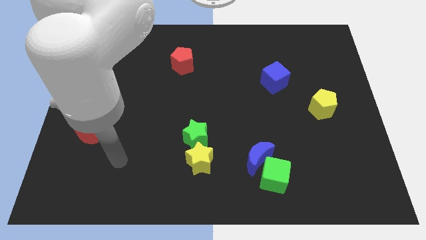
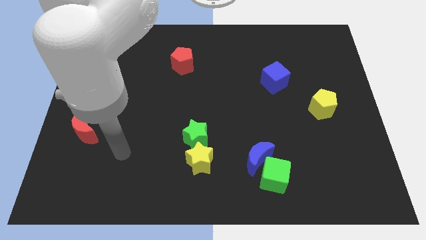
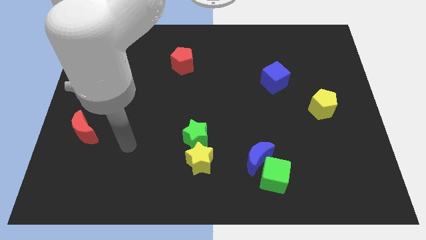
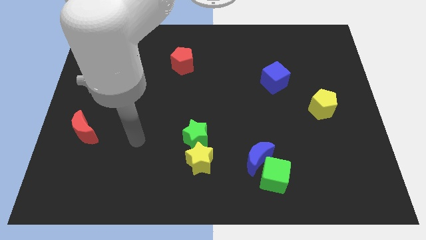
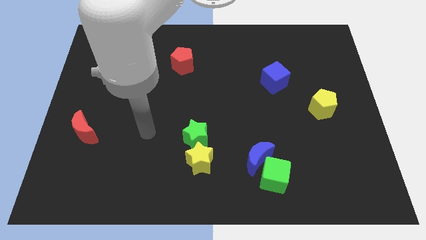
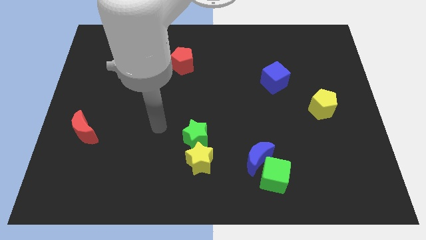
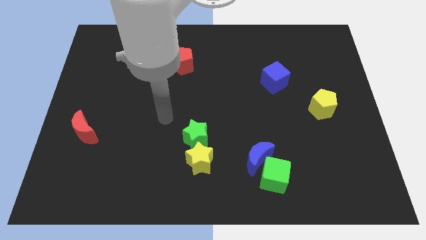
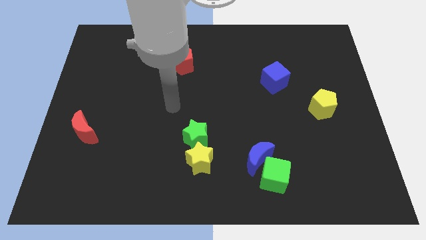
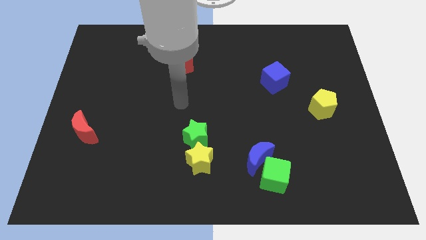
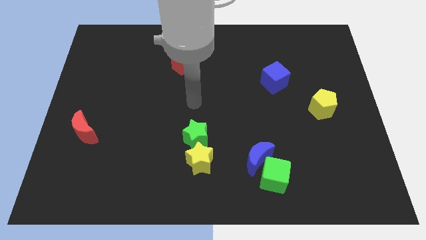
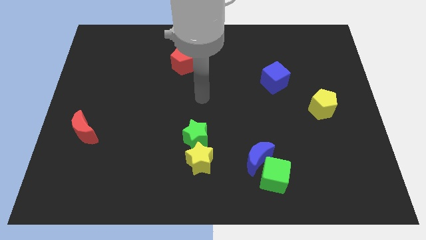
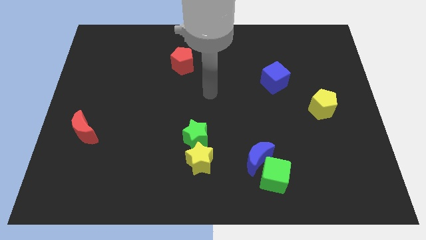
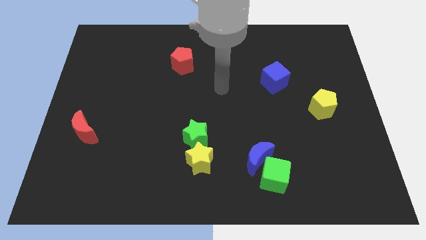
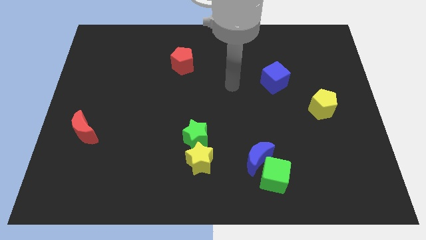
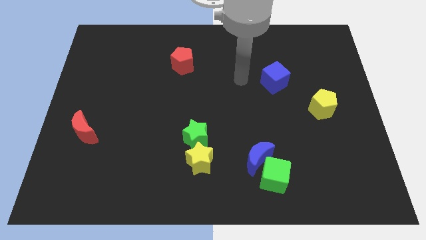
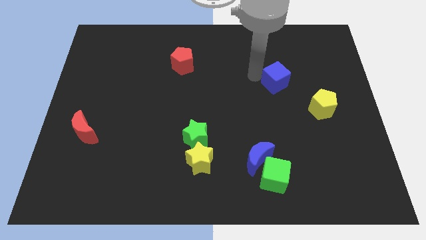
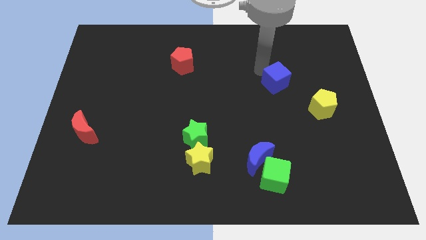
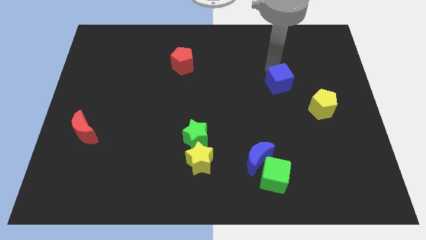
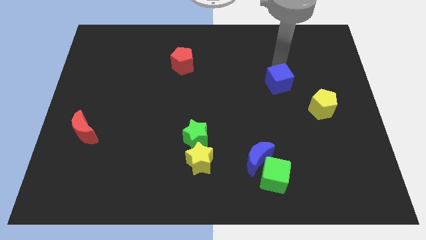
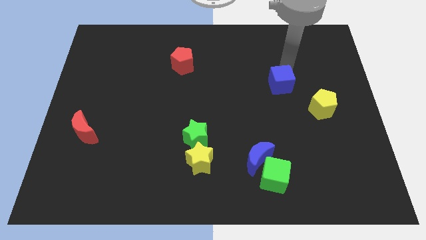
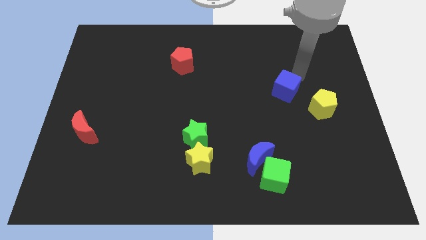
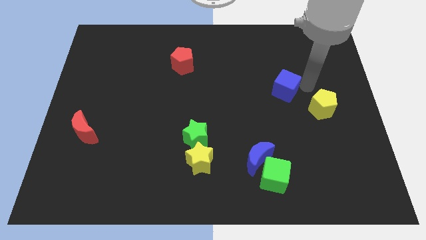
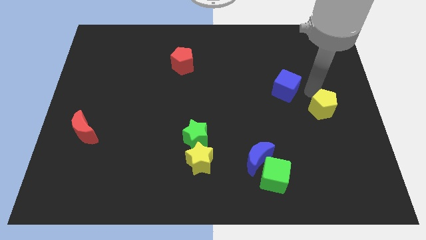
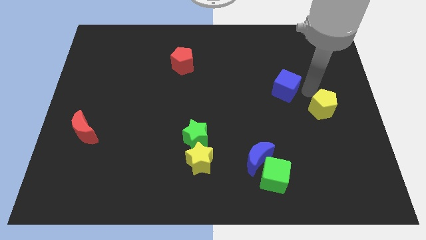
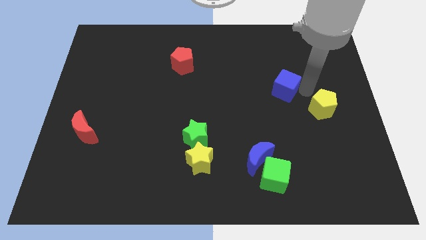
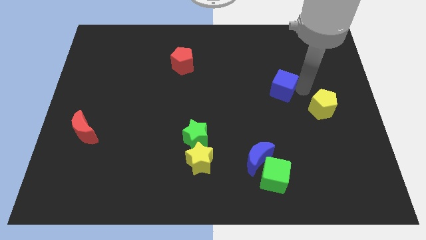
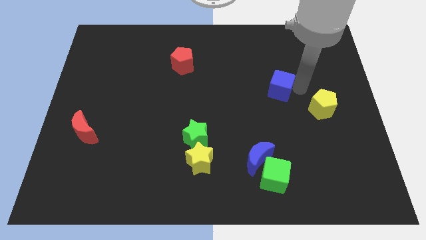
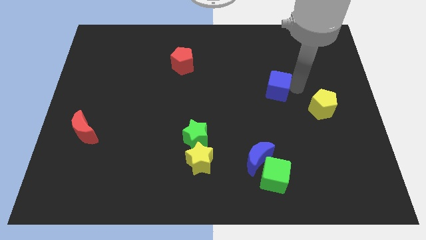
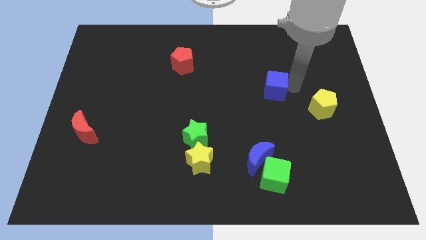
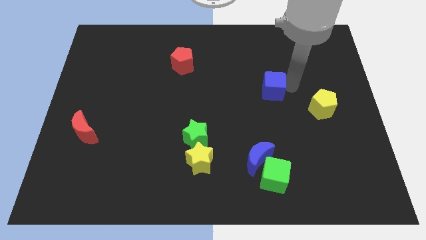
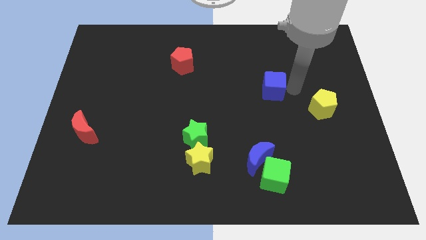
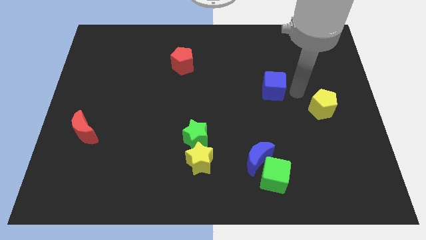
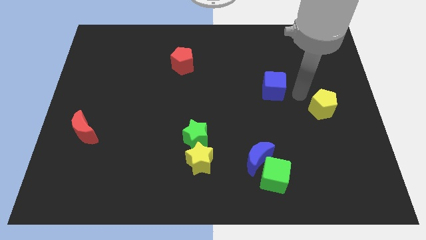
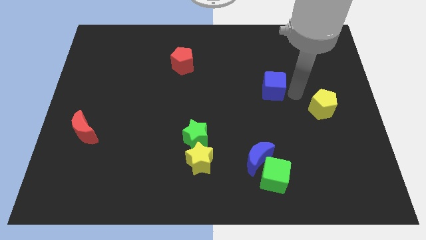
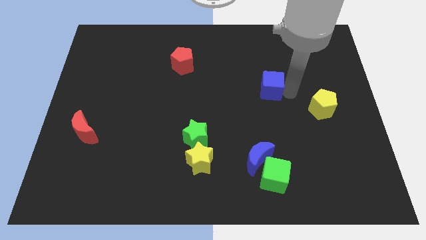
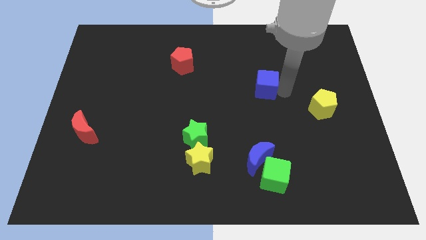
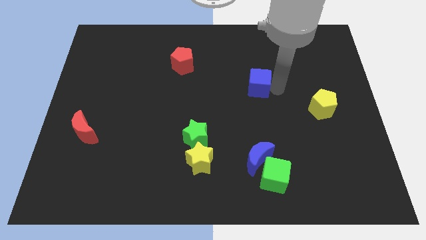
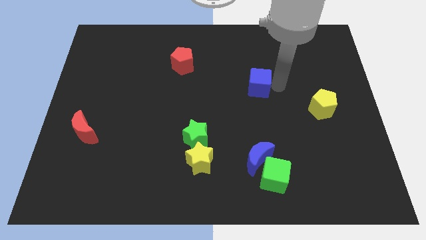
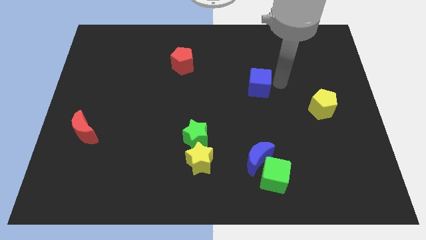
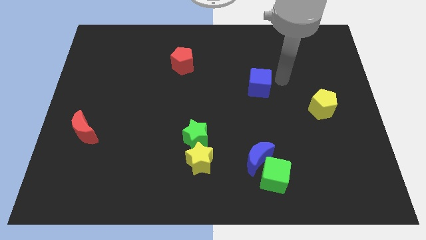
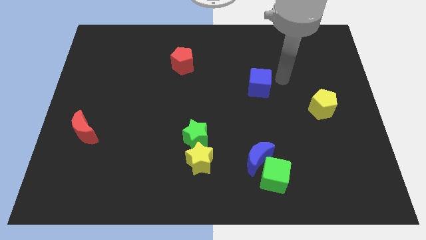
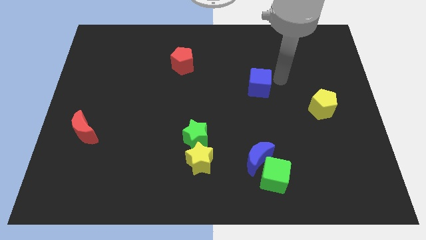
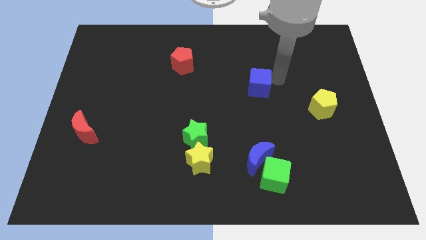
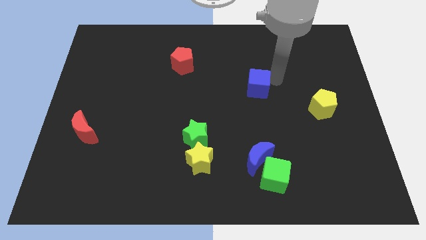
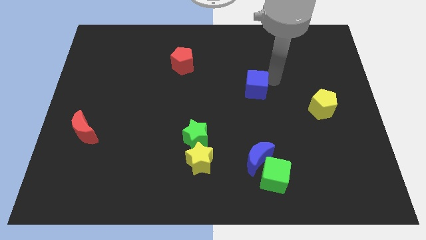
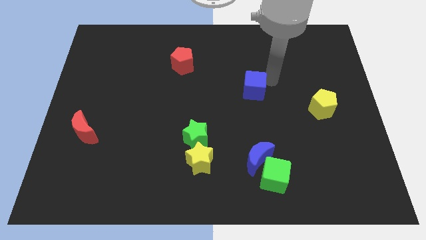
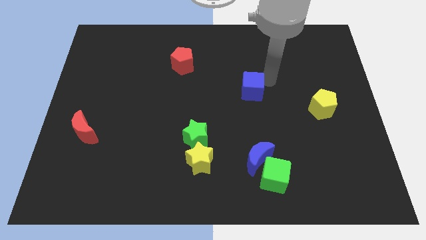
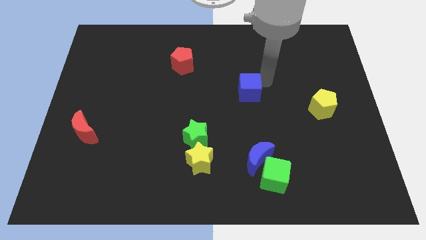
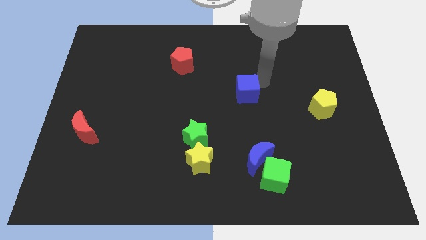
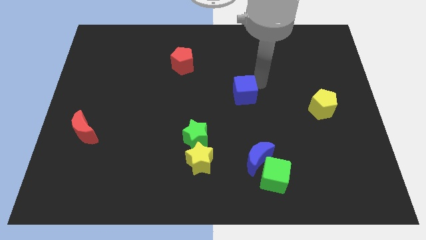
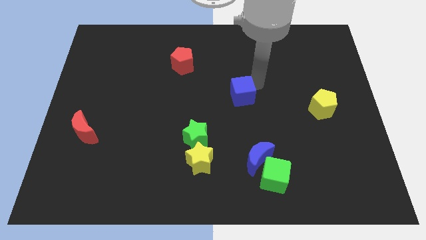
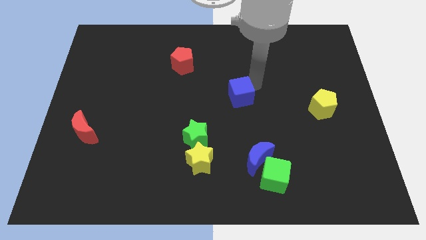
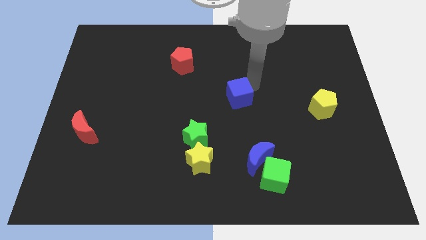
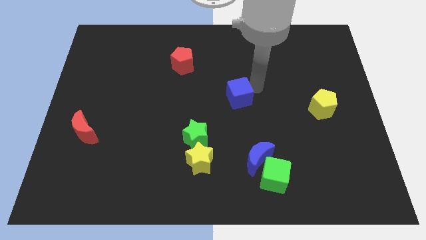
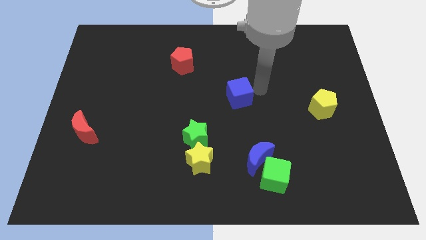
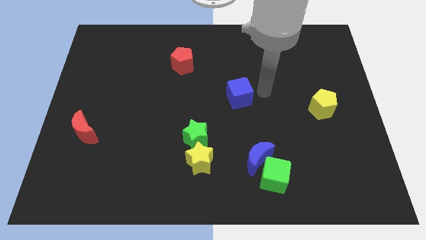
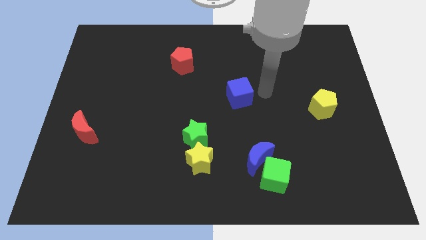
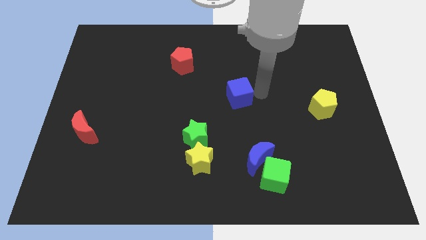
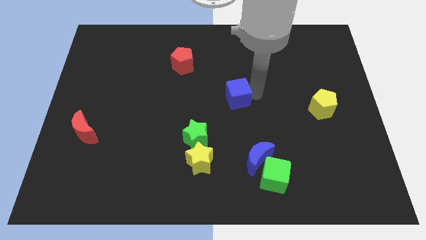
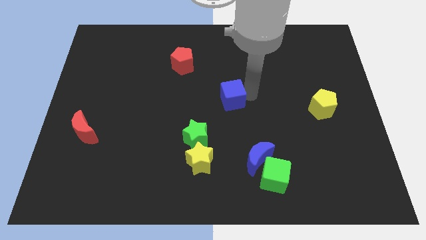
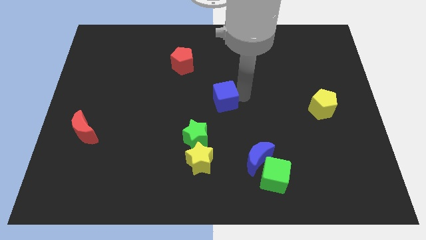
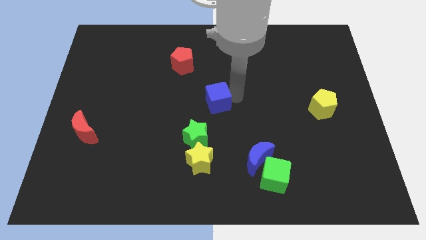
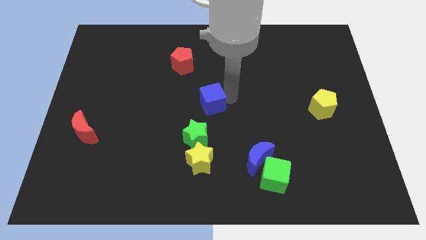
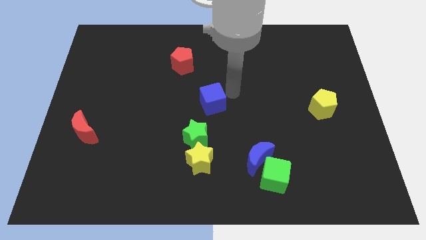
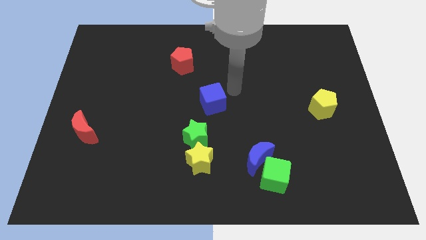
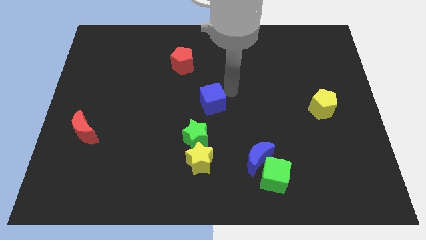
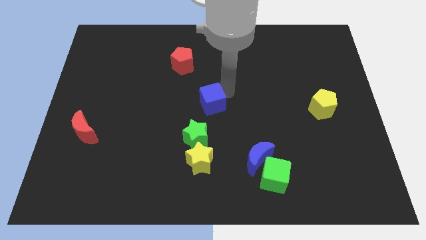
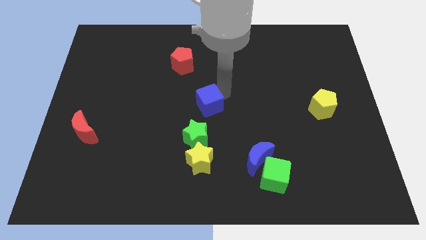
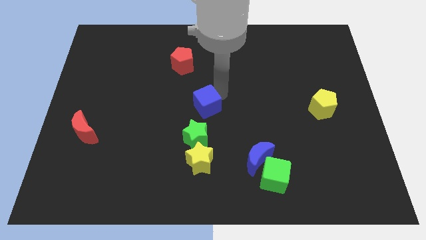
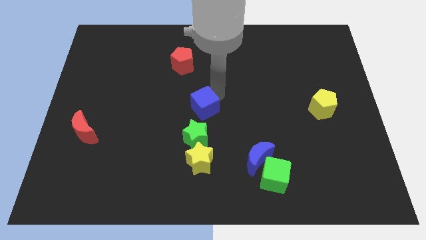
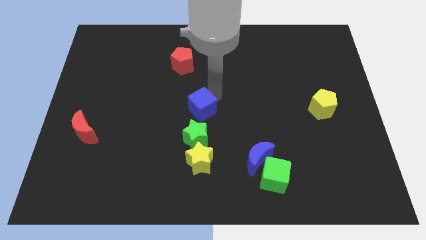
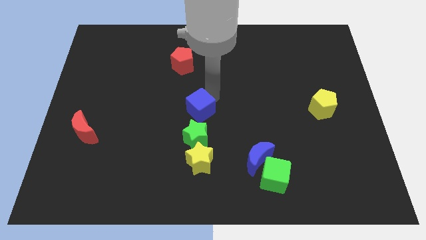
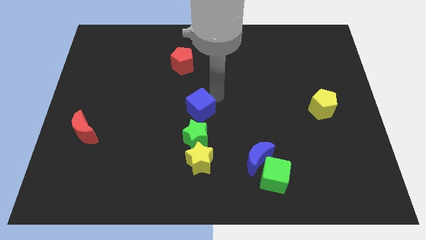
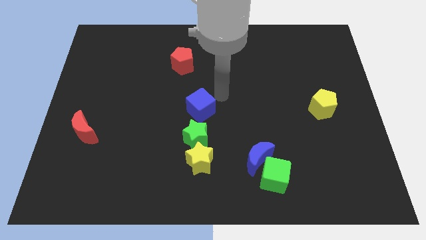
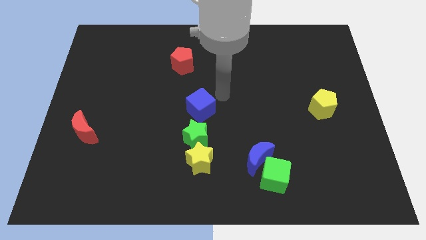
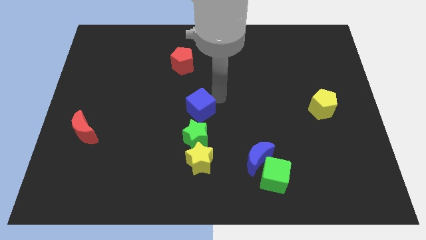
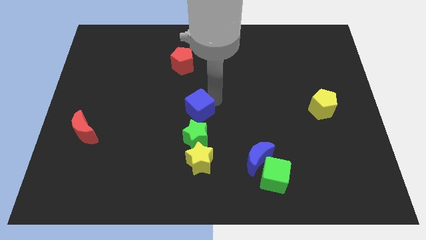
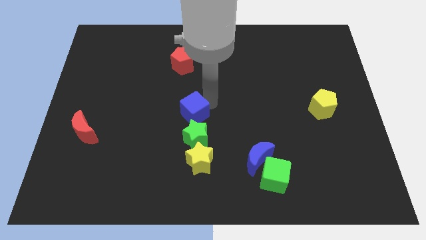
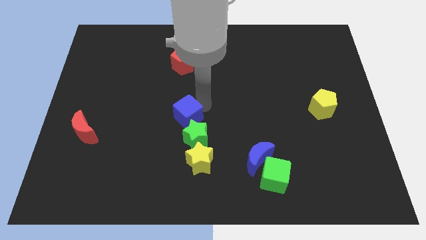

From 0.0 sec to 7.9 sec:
push the blue cube diagonally down and to the left
